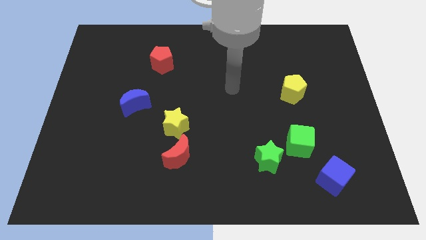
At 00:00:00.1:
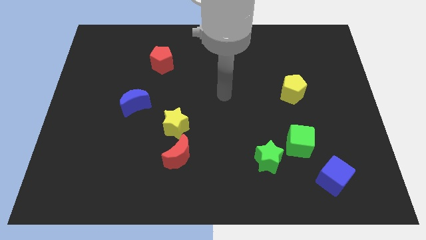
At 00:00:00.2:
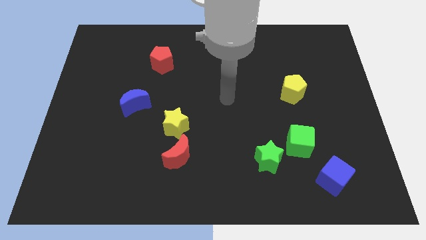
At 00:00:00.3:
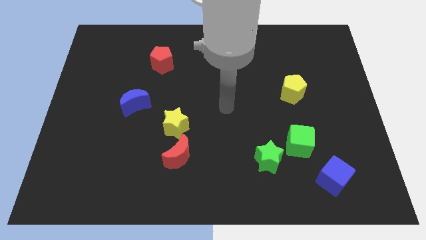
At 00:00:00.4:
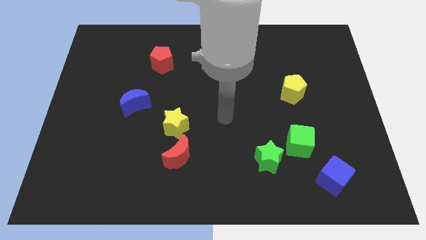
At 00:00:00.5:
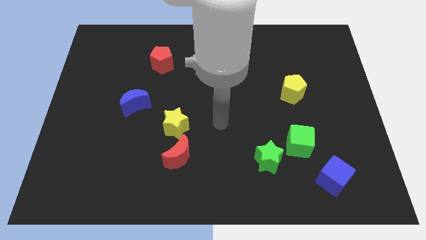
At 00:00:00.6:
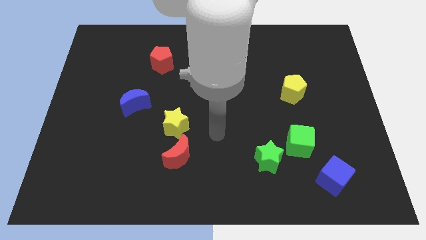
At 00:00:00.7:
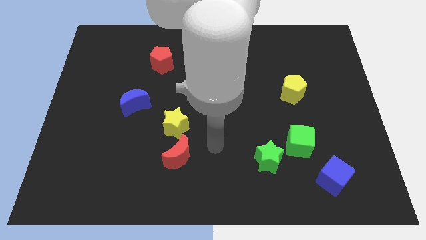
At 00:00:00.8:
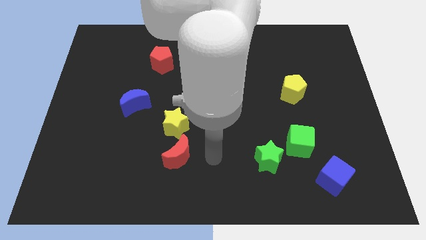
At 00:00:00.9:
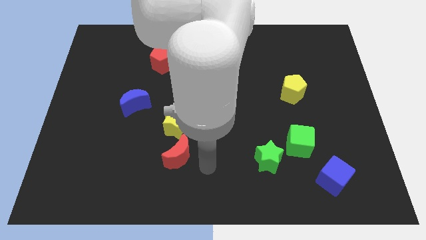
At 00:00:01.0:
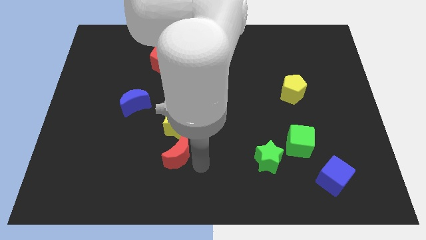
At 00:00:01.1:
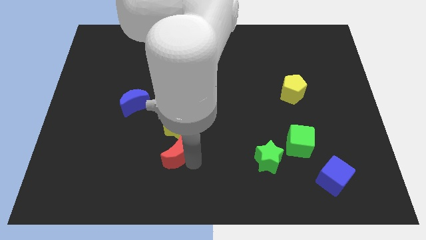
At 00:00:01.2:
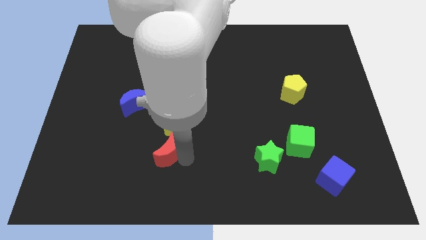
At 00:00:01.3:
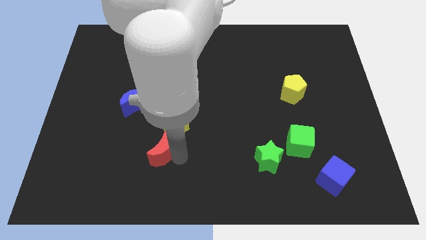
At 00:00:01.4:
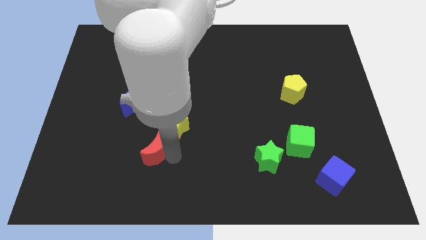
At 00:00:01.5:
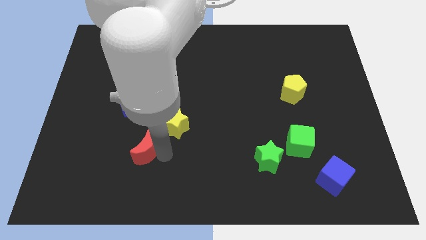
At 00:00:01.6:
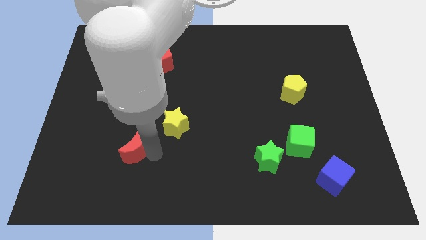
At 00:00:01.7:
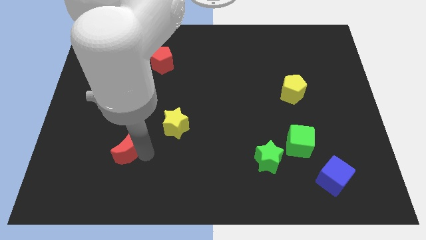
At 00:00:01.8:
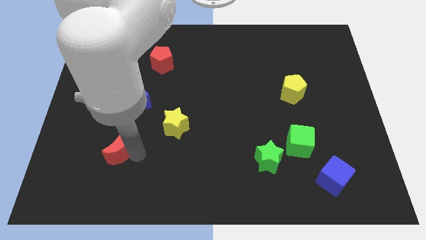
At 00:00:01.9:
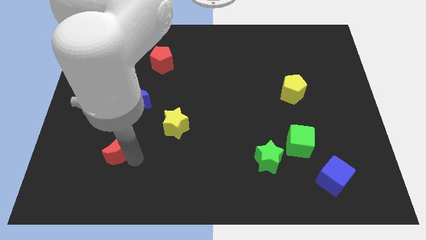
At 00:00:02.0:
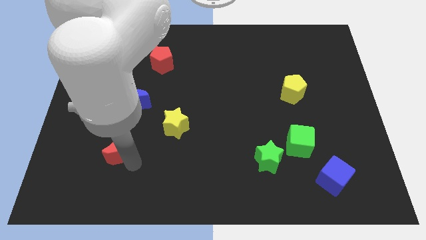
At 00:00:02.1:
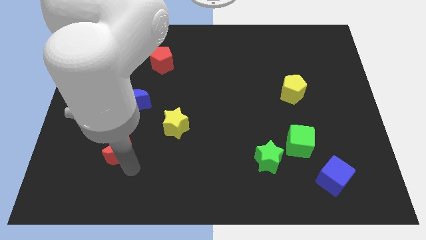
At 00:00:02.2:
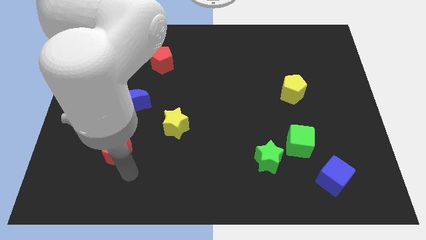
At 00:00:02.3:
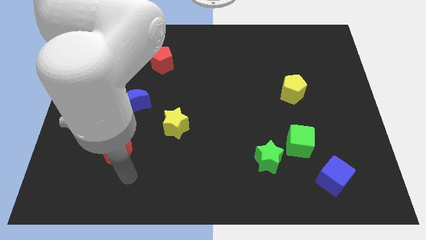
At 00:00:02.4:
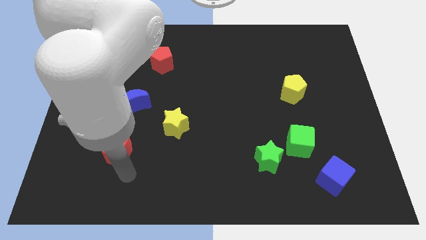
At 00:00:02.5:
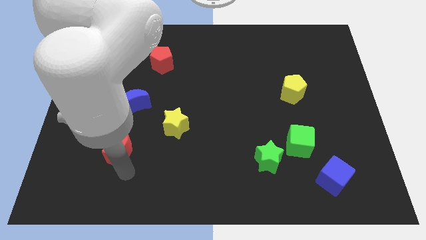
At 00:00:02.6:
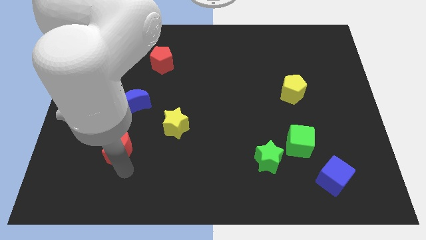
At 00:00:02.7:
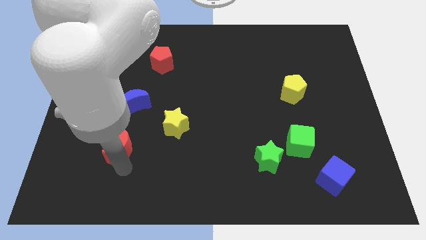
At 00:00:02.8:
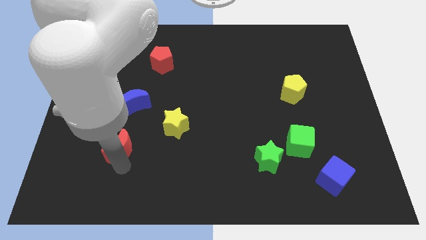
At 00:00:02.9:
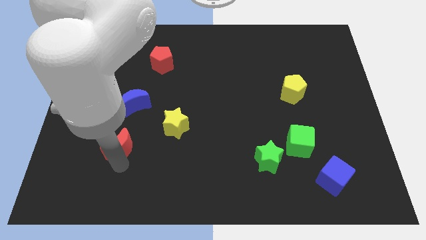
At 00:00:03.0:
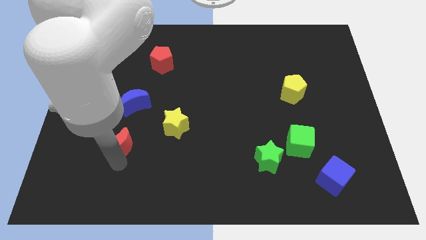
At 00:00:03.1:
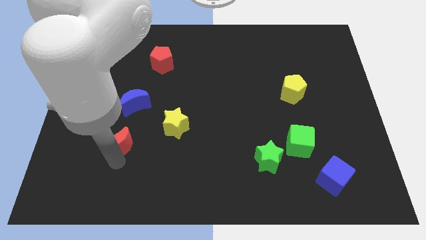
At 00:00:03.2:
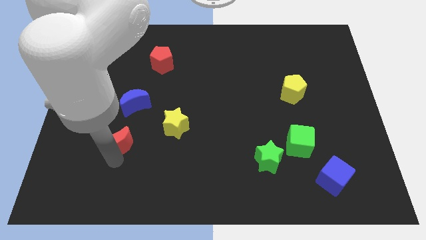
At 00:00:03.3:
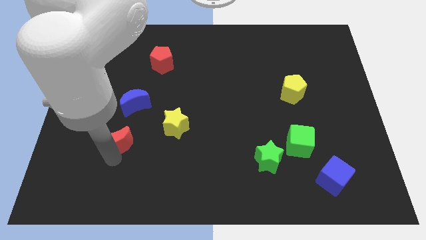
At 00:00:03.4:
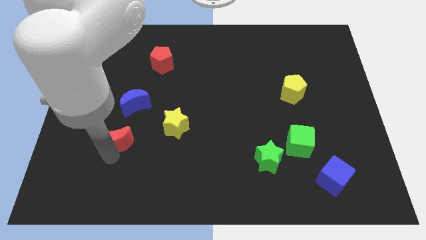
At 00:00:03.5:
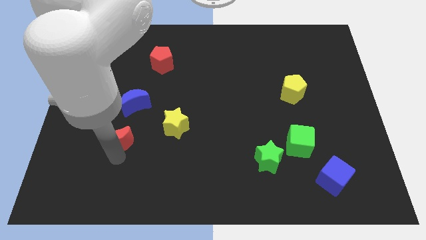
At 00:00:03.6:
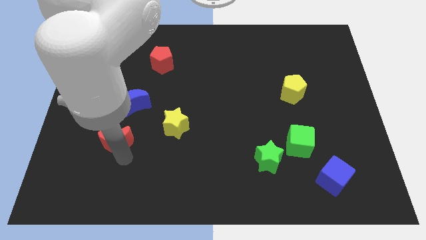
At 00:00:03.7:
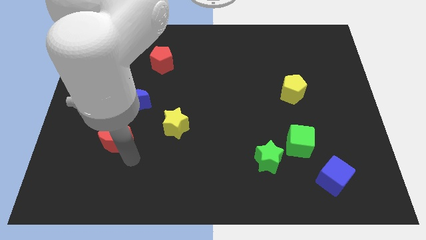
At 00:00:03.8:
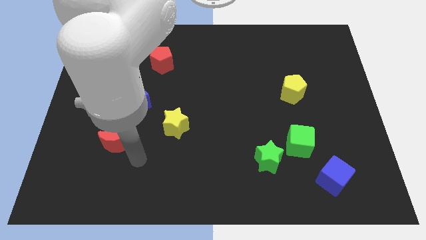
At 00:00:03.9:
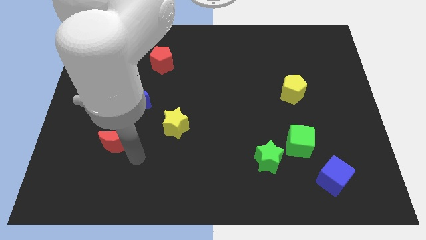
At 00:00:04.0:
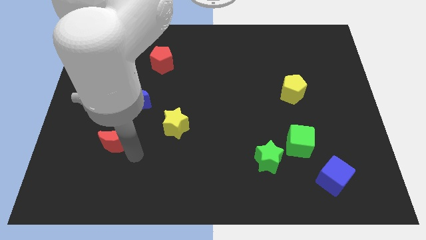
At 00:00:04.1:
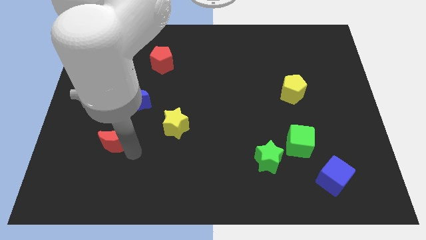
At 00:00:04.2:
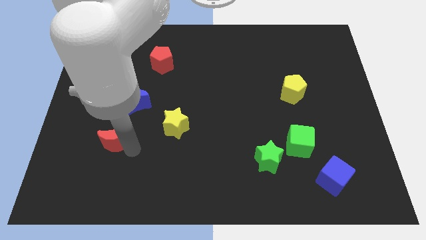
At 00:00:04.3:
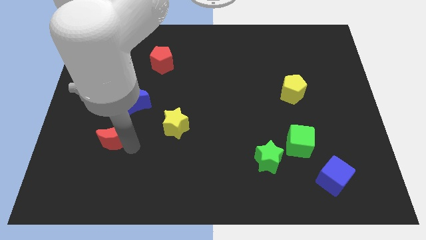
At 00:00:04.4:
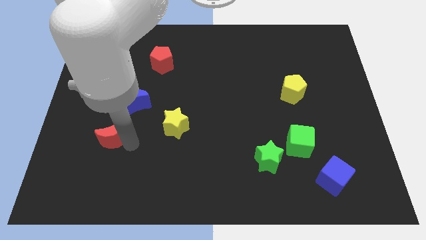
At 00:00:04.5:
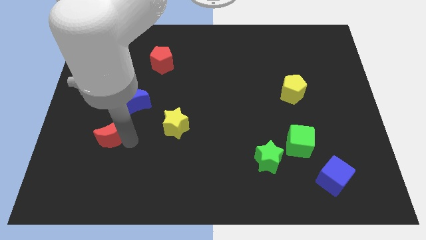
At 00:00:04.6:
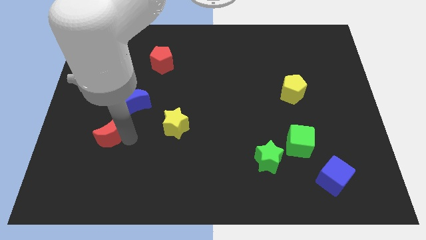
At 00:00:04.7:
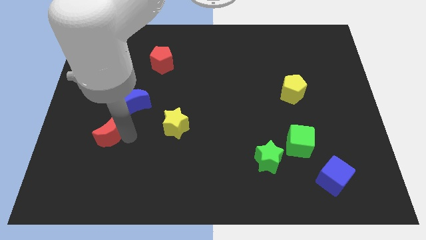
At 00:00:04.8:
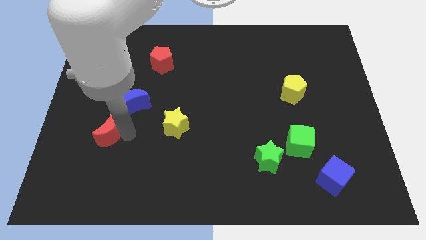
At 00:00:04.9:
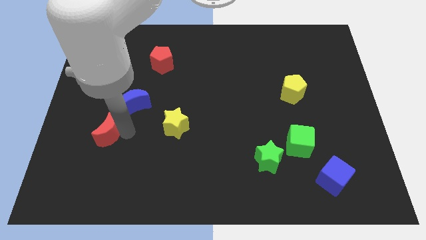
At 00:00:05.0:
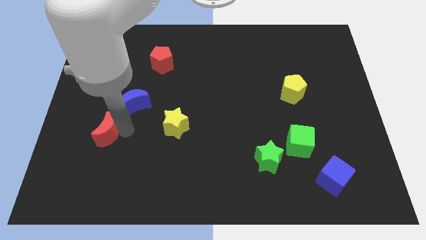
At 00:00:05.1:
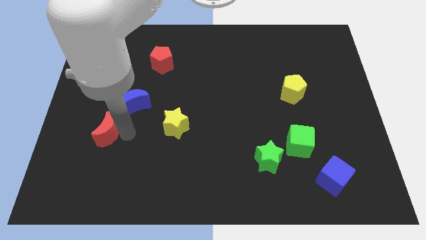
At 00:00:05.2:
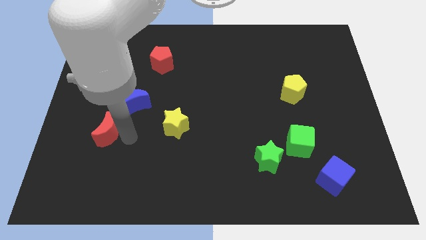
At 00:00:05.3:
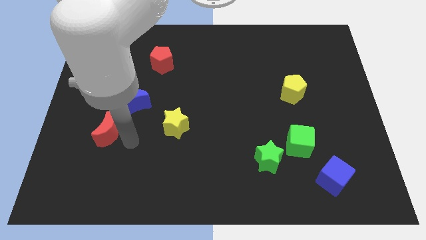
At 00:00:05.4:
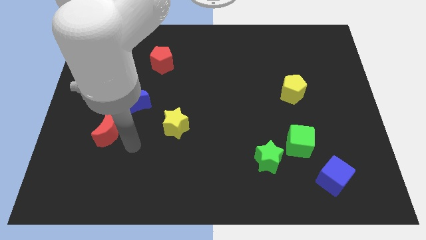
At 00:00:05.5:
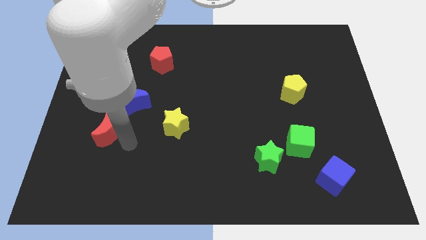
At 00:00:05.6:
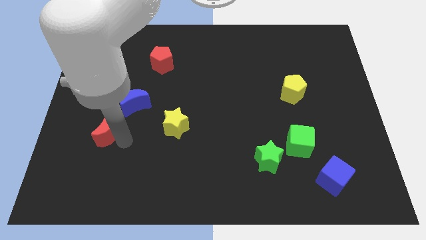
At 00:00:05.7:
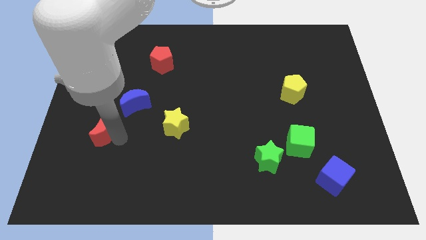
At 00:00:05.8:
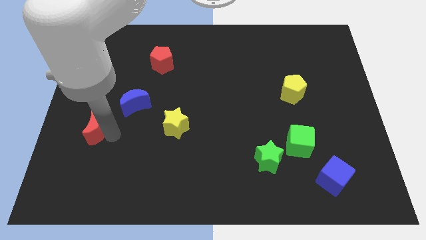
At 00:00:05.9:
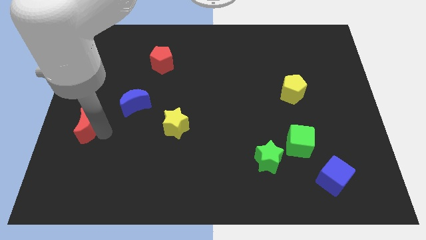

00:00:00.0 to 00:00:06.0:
push the red moon to the left side of the board
